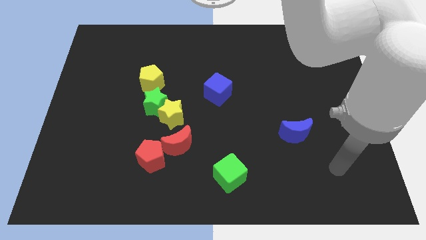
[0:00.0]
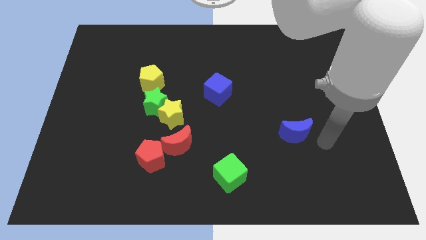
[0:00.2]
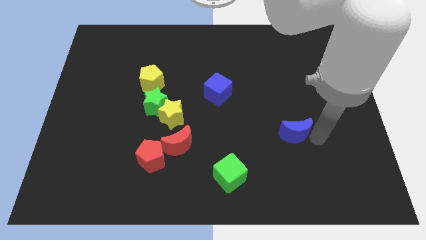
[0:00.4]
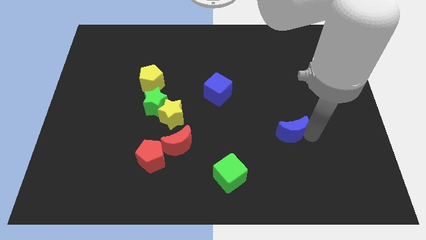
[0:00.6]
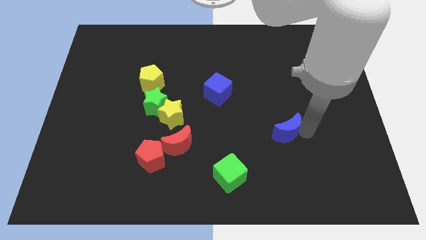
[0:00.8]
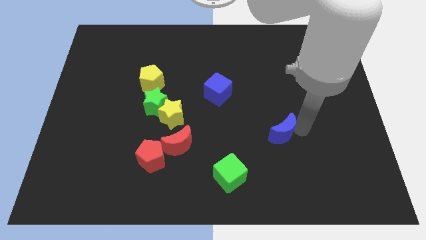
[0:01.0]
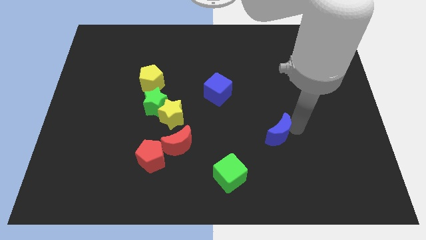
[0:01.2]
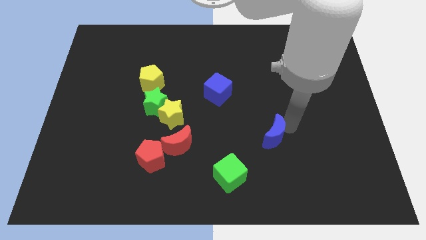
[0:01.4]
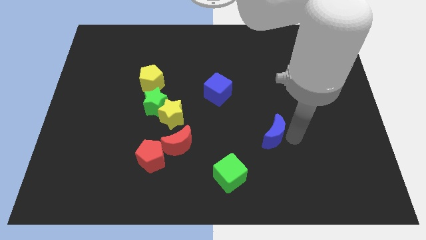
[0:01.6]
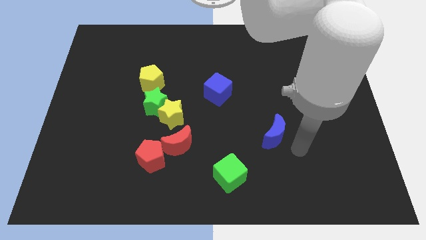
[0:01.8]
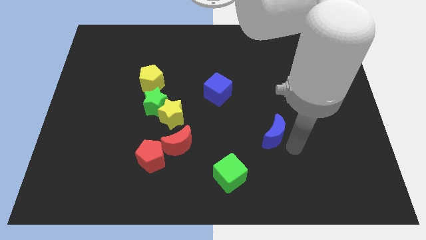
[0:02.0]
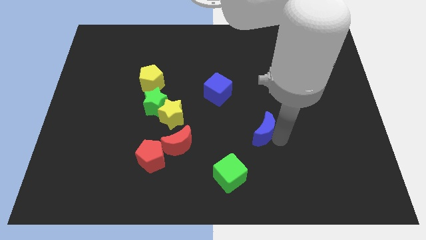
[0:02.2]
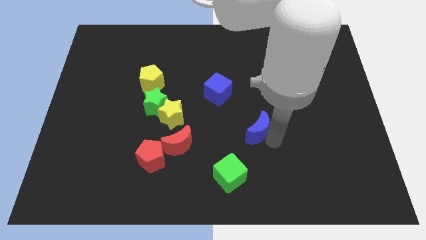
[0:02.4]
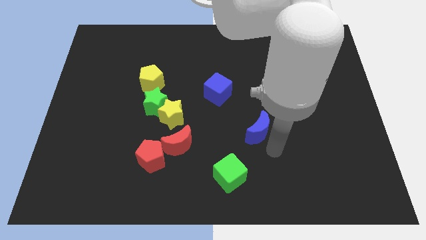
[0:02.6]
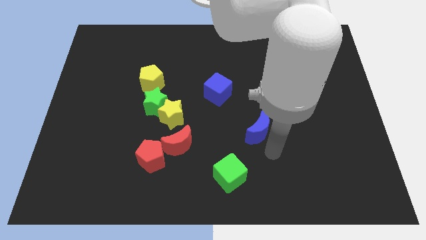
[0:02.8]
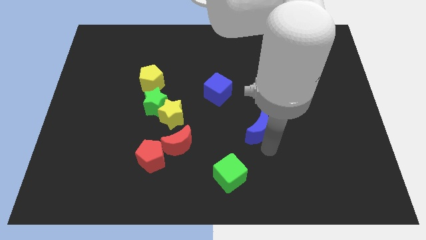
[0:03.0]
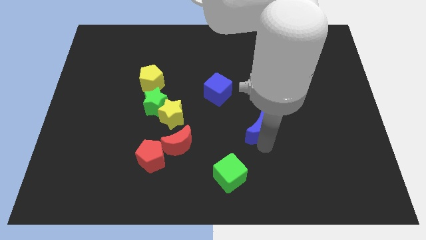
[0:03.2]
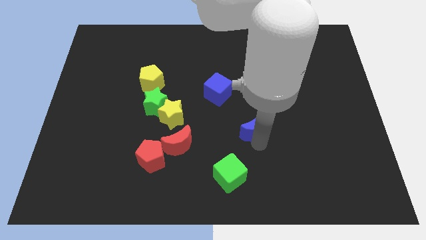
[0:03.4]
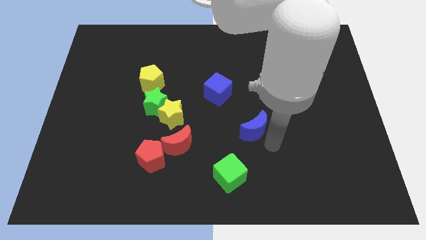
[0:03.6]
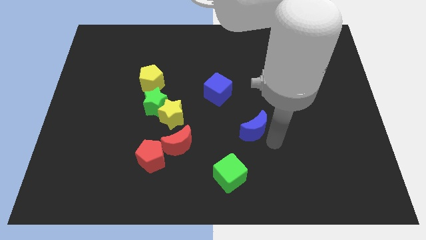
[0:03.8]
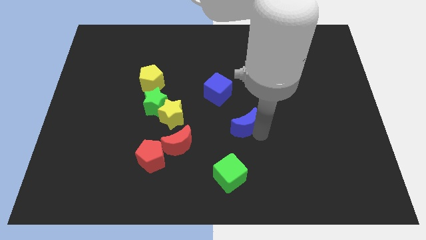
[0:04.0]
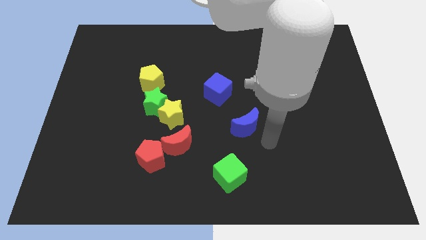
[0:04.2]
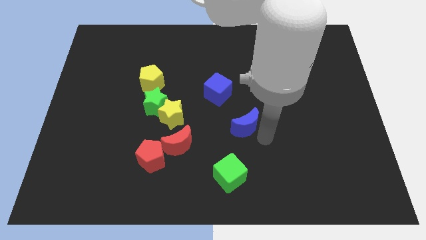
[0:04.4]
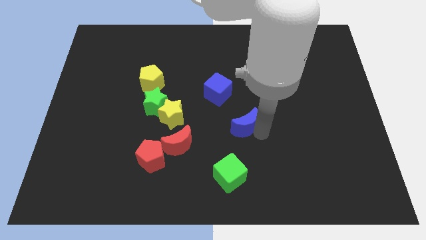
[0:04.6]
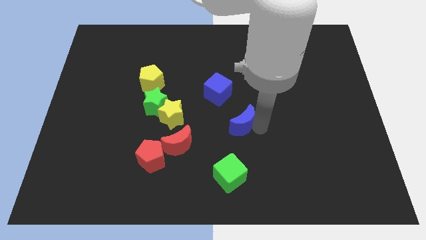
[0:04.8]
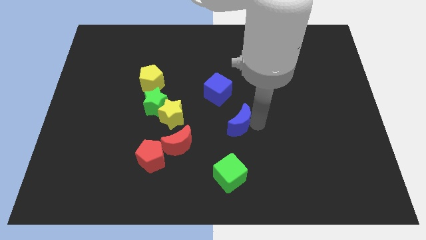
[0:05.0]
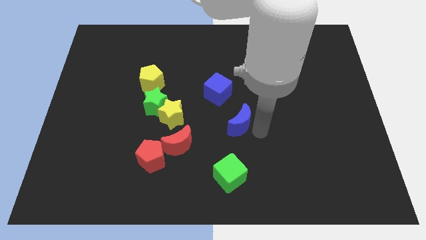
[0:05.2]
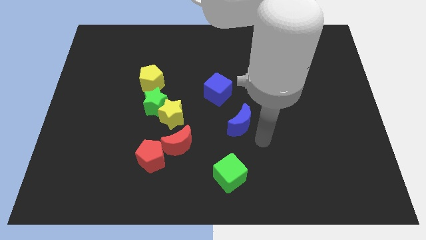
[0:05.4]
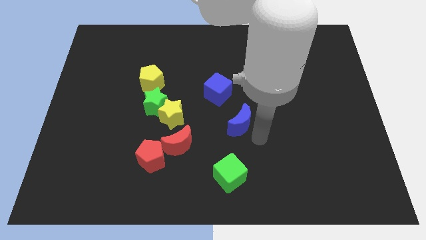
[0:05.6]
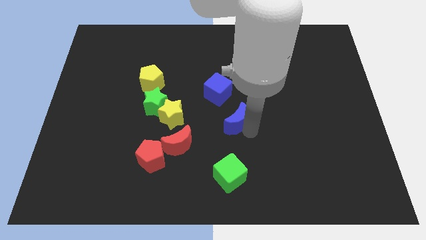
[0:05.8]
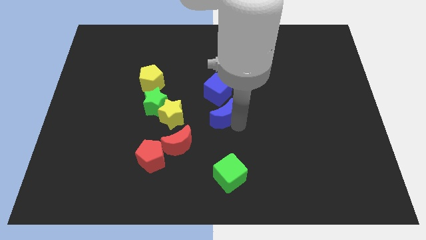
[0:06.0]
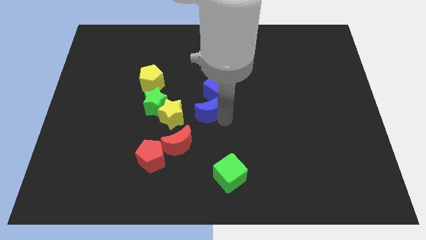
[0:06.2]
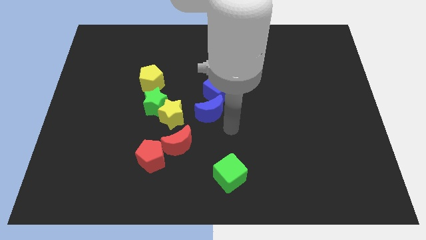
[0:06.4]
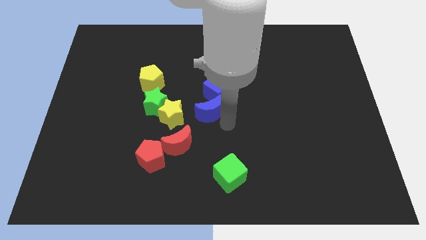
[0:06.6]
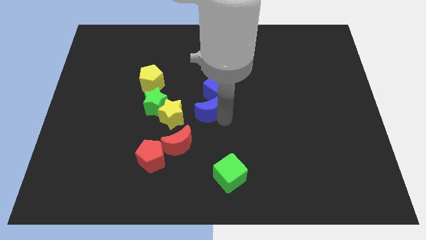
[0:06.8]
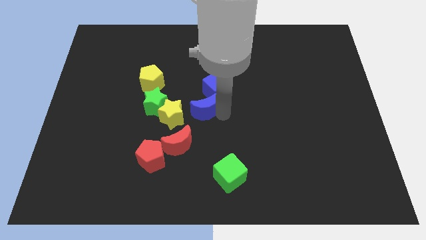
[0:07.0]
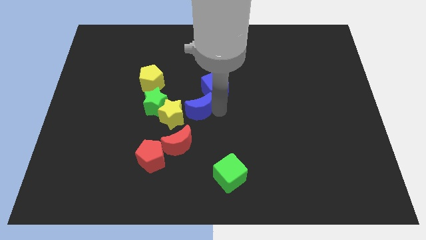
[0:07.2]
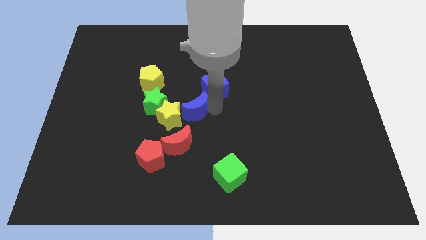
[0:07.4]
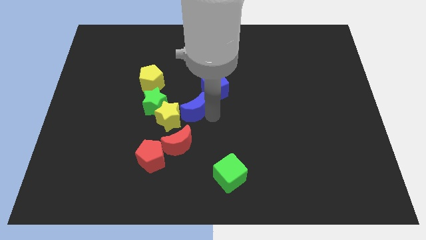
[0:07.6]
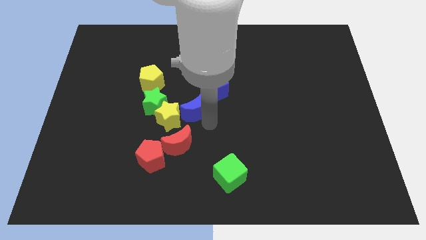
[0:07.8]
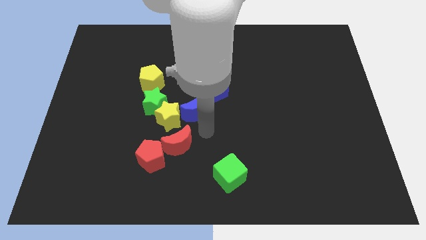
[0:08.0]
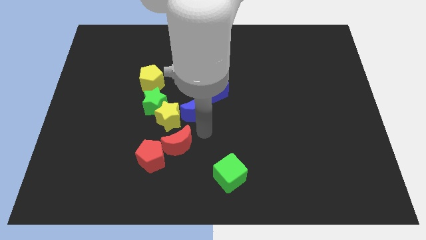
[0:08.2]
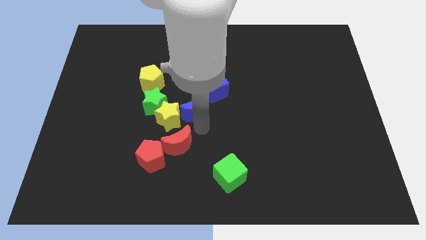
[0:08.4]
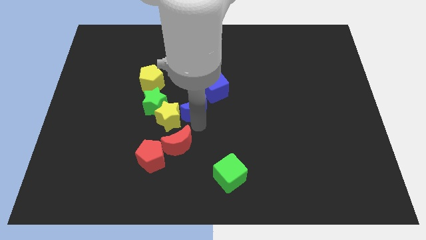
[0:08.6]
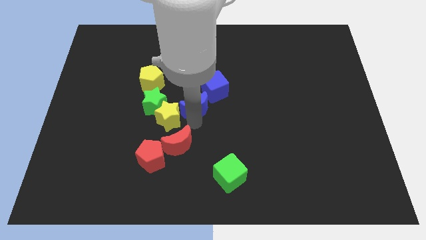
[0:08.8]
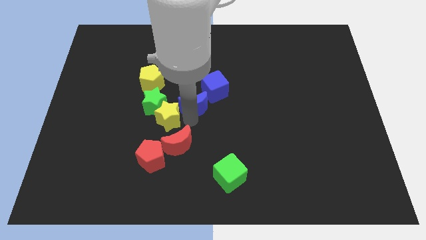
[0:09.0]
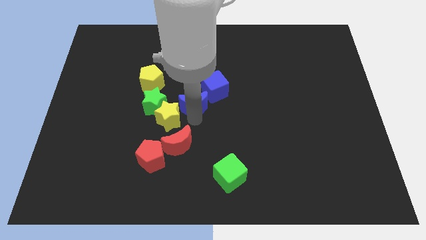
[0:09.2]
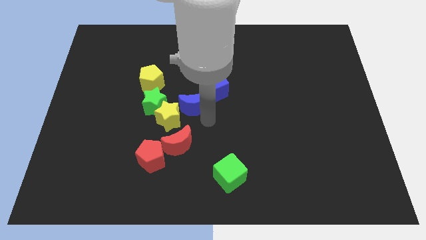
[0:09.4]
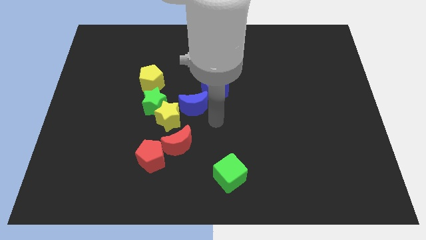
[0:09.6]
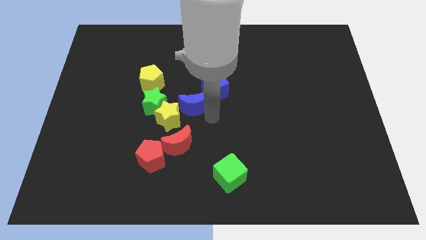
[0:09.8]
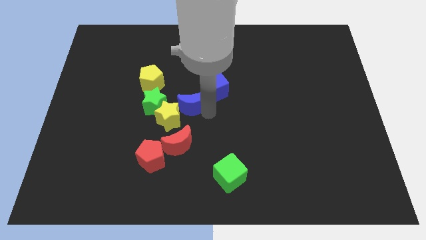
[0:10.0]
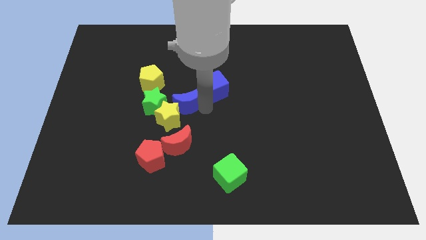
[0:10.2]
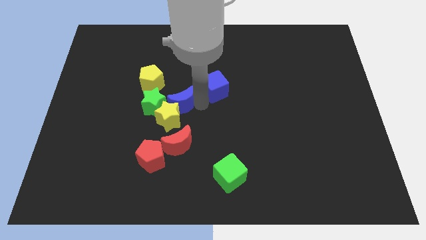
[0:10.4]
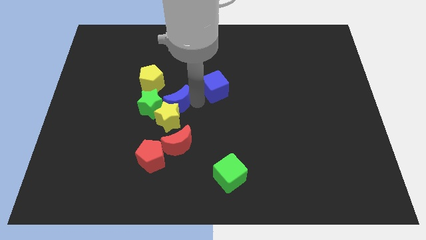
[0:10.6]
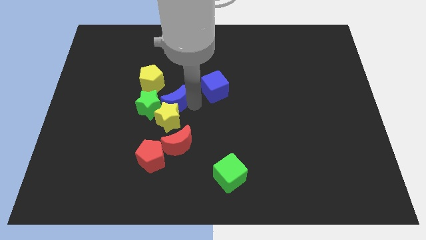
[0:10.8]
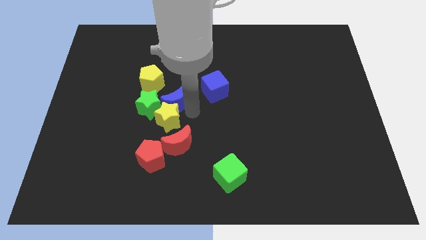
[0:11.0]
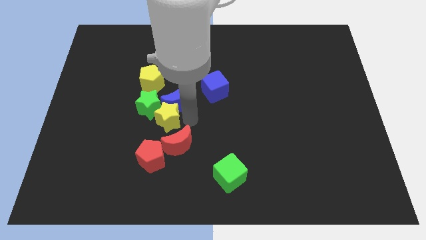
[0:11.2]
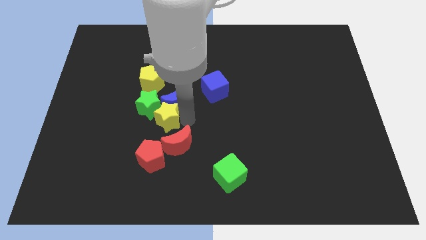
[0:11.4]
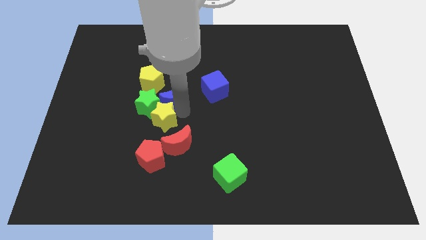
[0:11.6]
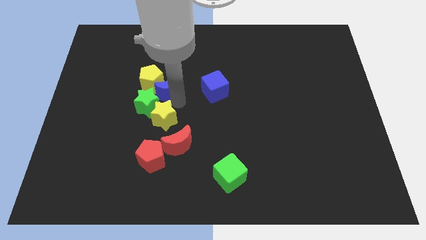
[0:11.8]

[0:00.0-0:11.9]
slide the blue moon close to the yellow pentagon

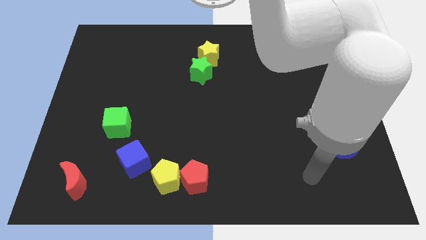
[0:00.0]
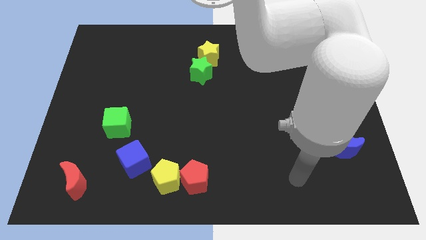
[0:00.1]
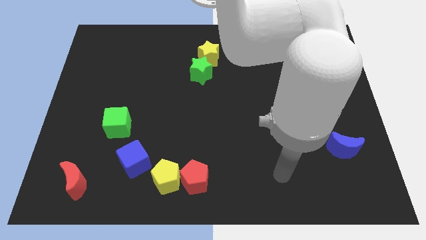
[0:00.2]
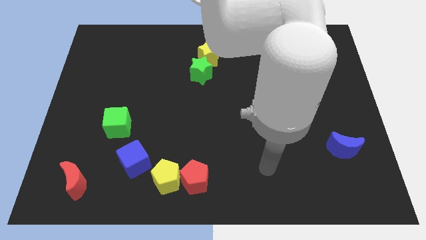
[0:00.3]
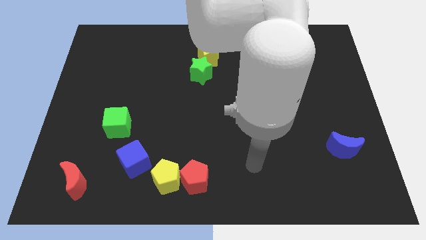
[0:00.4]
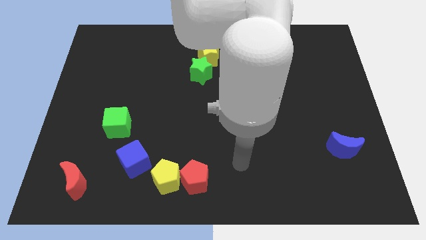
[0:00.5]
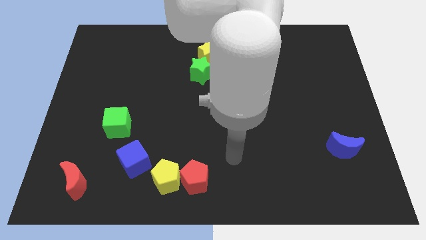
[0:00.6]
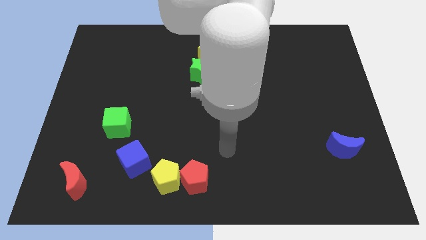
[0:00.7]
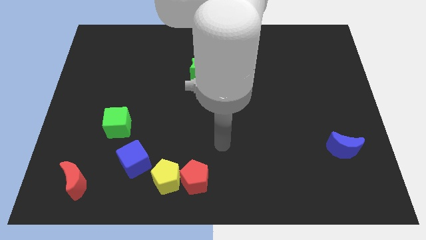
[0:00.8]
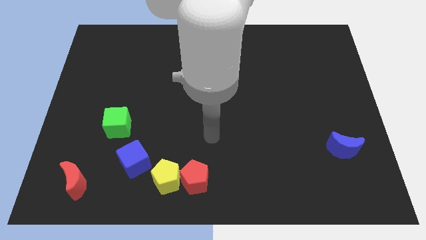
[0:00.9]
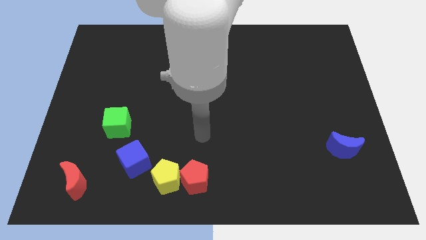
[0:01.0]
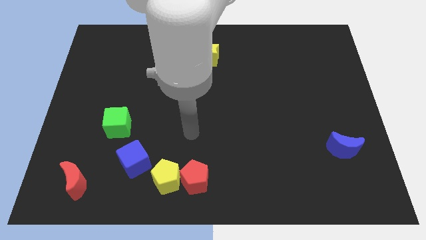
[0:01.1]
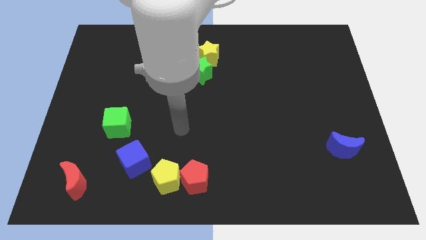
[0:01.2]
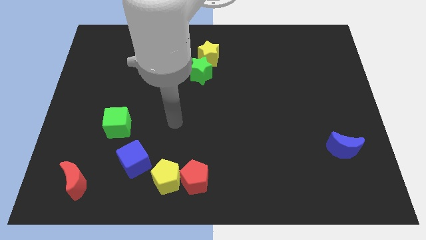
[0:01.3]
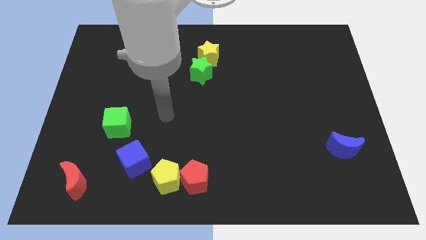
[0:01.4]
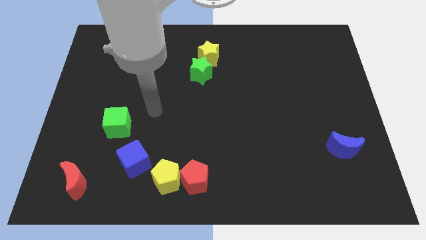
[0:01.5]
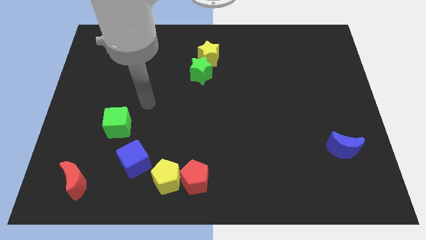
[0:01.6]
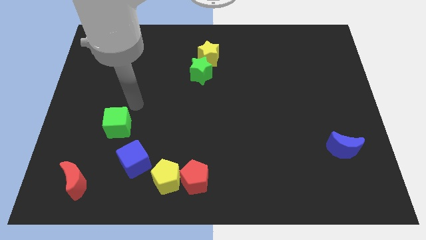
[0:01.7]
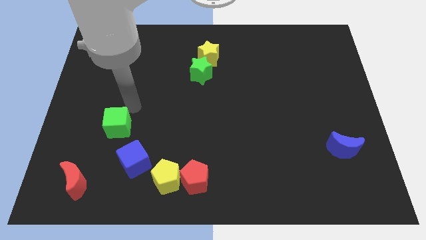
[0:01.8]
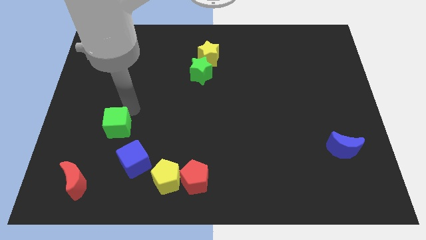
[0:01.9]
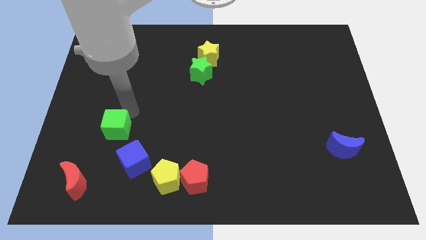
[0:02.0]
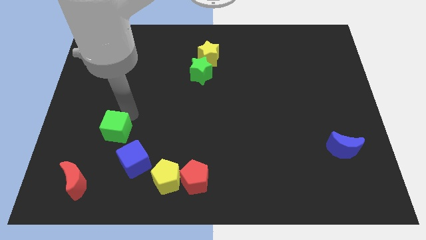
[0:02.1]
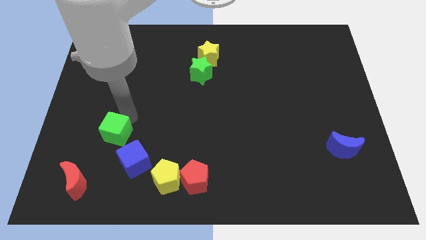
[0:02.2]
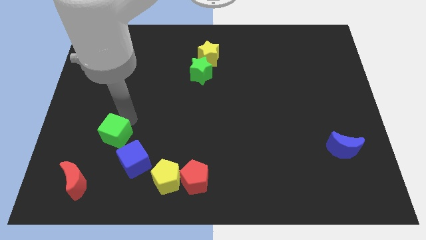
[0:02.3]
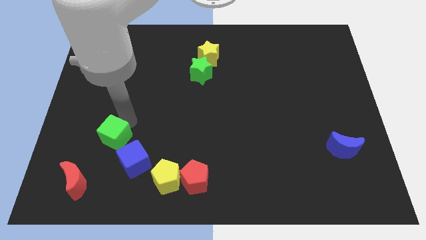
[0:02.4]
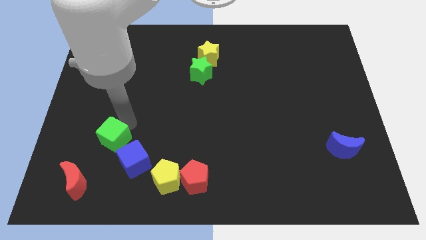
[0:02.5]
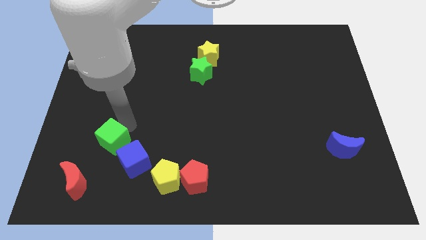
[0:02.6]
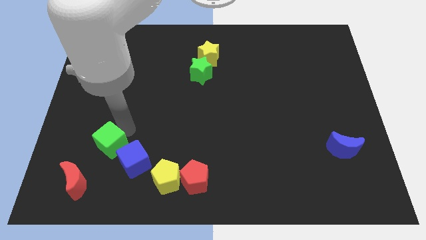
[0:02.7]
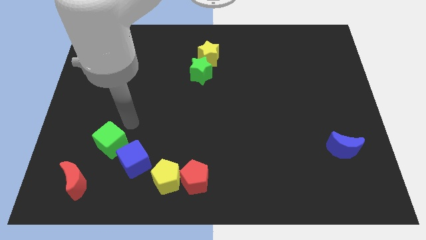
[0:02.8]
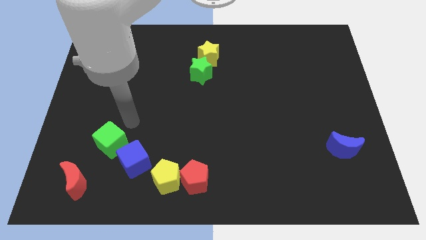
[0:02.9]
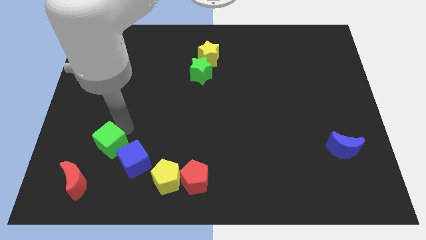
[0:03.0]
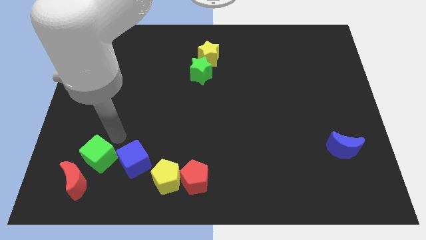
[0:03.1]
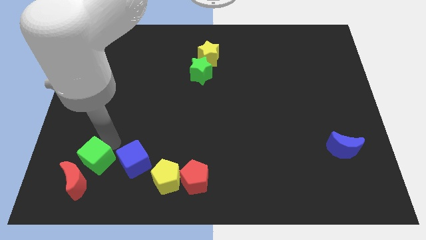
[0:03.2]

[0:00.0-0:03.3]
put the green cube next to the red moon
